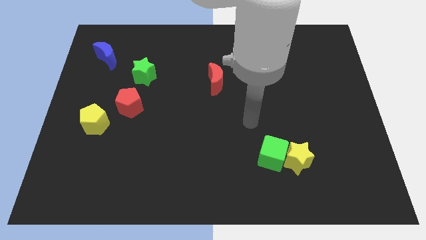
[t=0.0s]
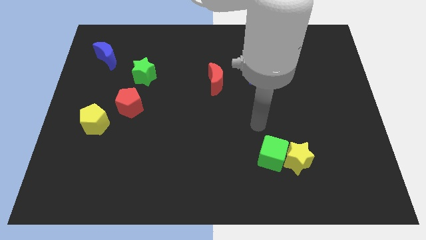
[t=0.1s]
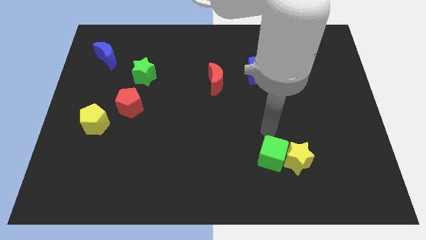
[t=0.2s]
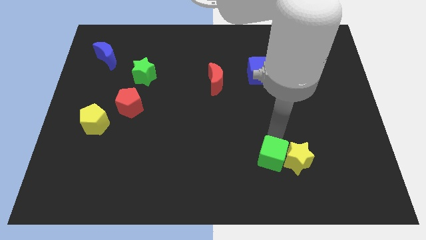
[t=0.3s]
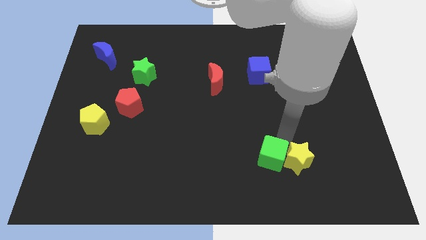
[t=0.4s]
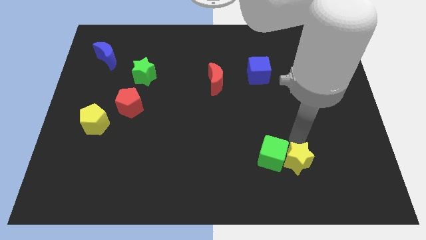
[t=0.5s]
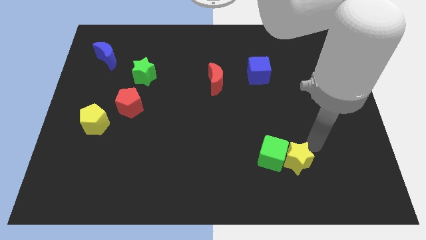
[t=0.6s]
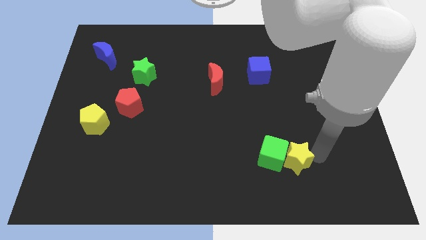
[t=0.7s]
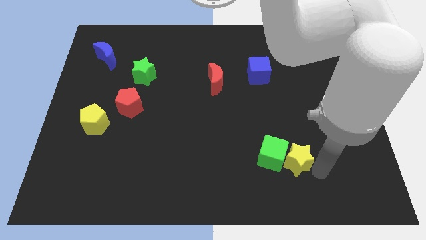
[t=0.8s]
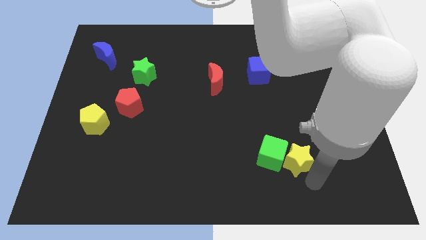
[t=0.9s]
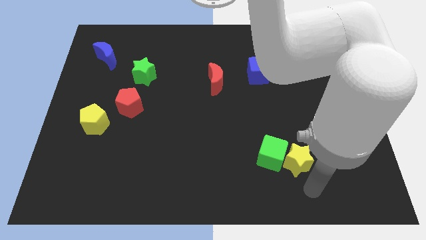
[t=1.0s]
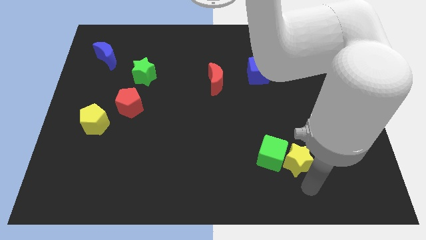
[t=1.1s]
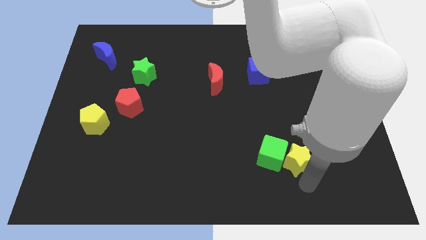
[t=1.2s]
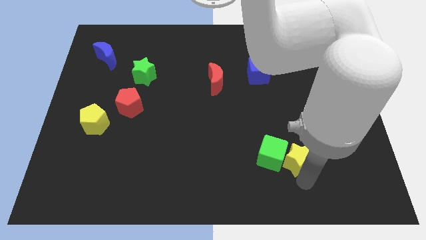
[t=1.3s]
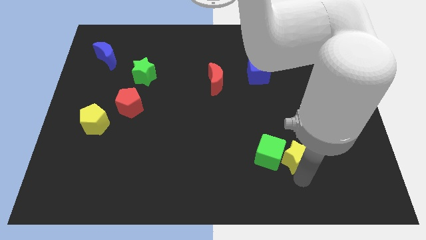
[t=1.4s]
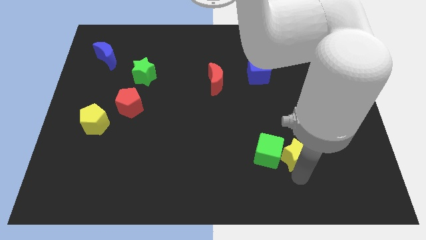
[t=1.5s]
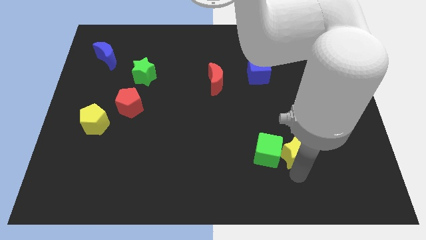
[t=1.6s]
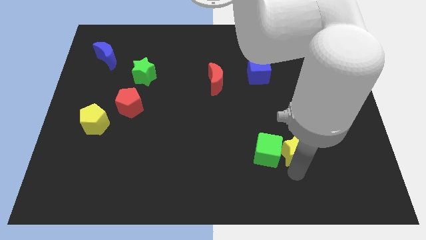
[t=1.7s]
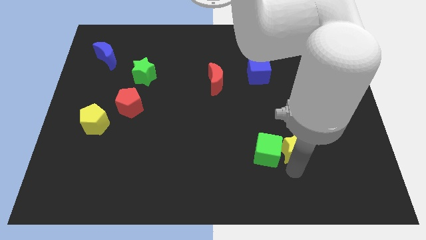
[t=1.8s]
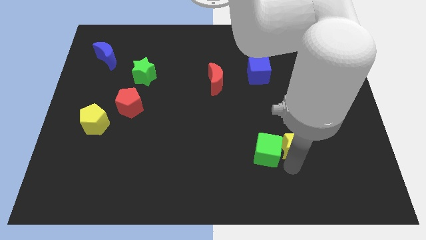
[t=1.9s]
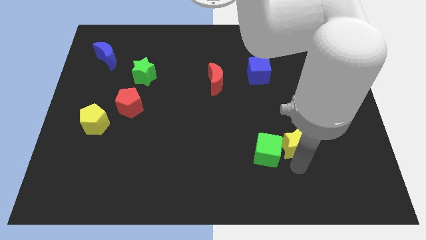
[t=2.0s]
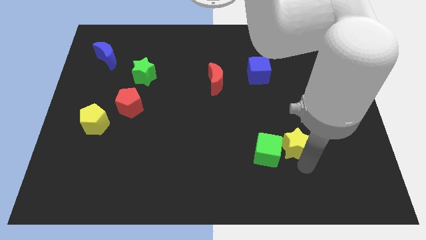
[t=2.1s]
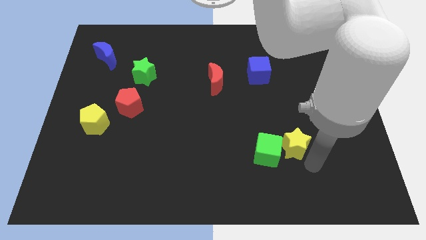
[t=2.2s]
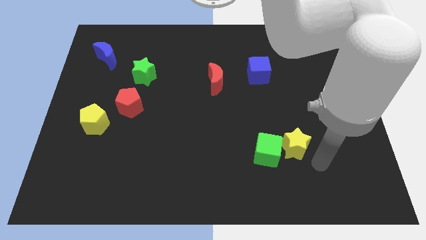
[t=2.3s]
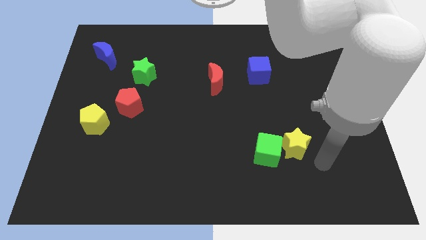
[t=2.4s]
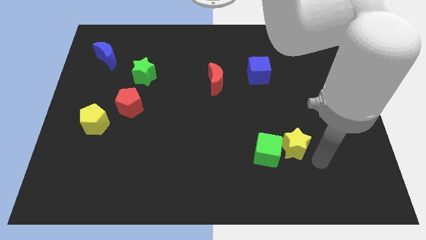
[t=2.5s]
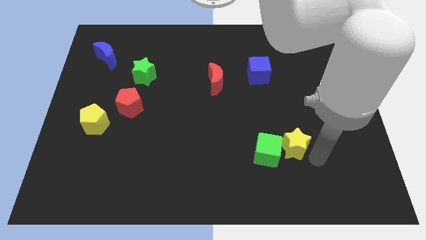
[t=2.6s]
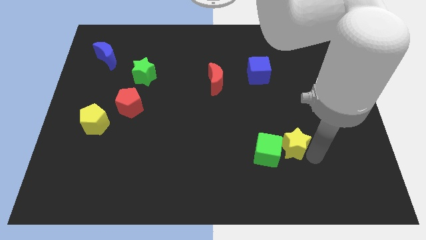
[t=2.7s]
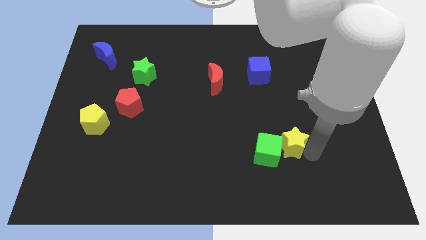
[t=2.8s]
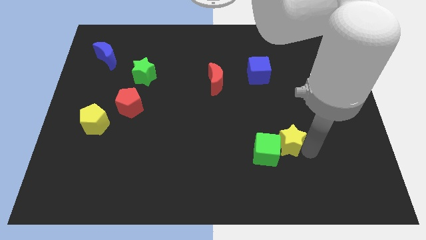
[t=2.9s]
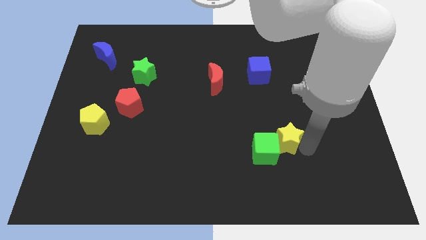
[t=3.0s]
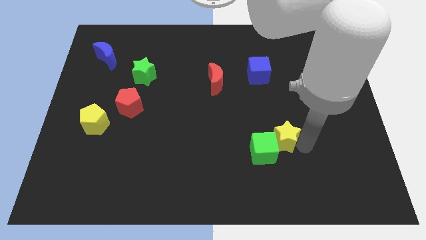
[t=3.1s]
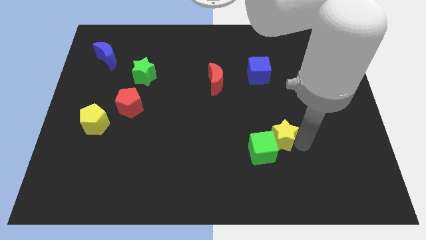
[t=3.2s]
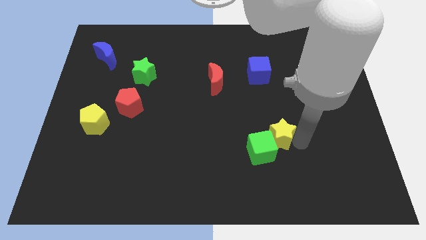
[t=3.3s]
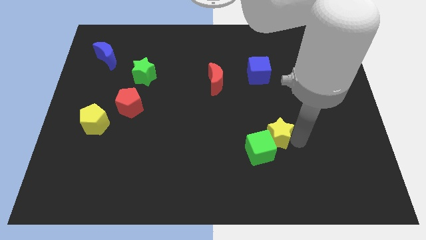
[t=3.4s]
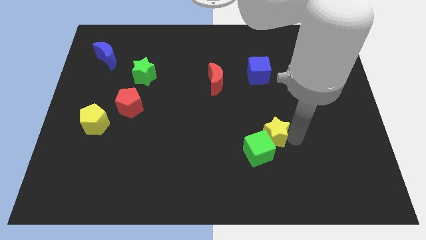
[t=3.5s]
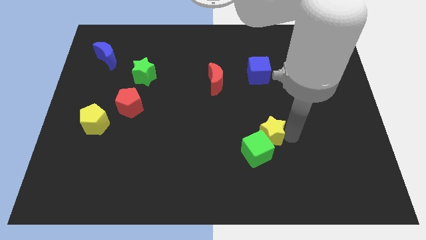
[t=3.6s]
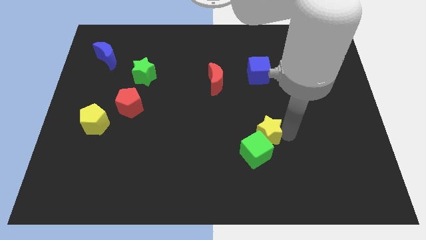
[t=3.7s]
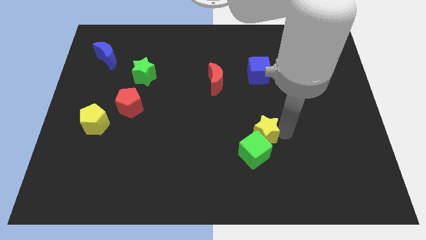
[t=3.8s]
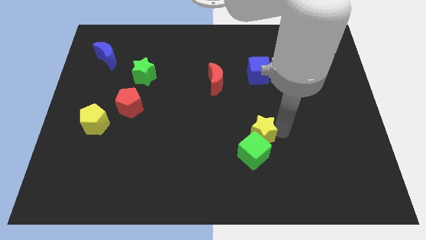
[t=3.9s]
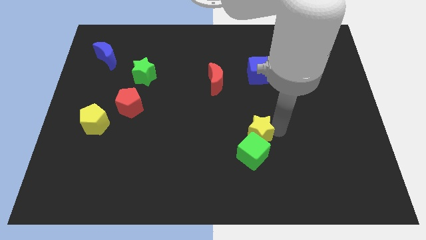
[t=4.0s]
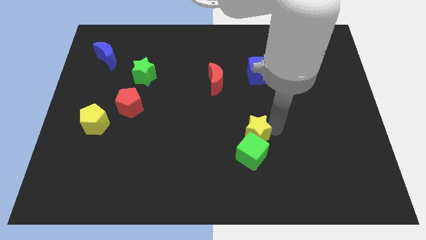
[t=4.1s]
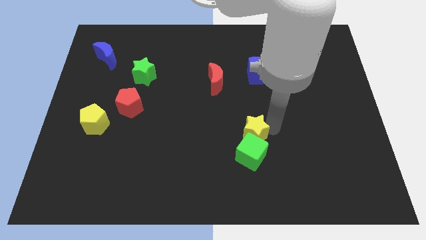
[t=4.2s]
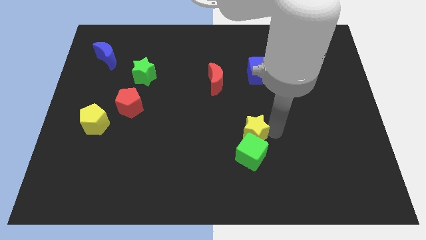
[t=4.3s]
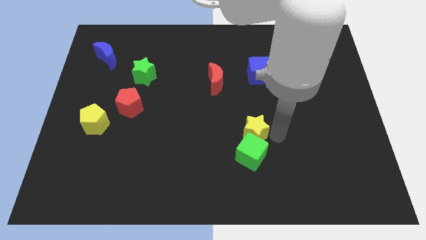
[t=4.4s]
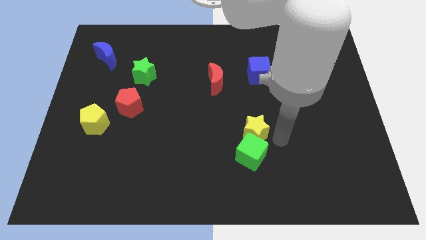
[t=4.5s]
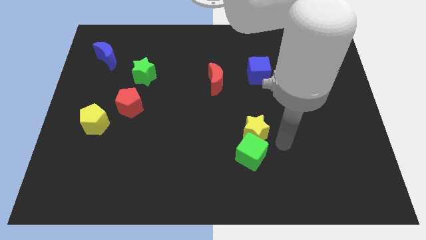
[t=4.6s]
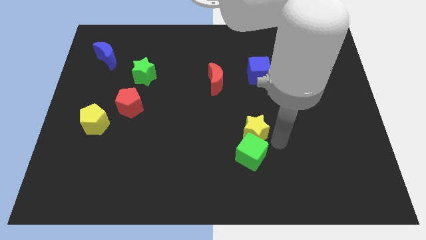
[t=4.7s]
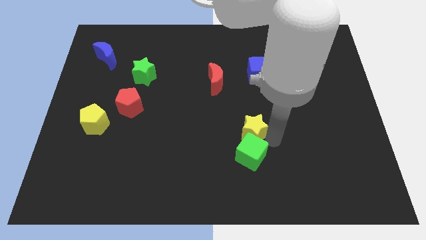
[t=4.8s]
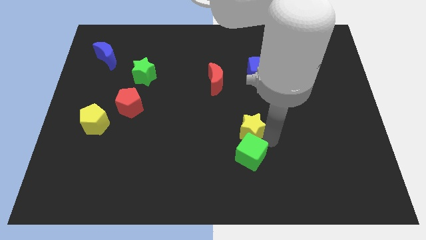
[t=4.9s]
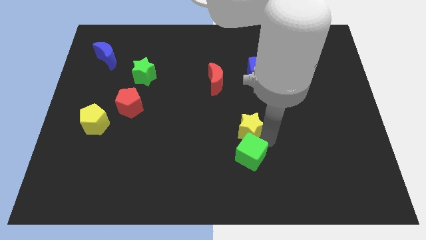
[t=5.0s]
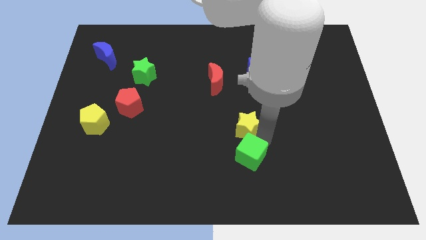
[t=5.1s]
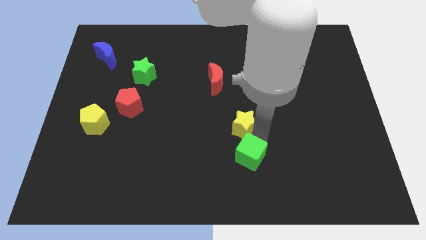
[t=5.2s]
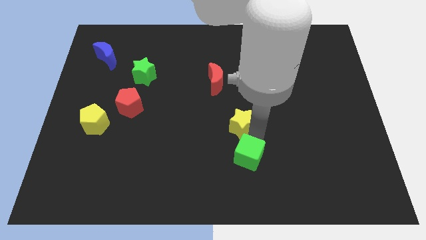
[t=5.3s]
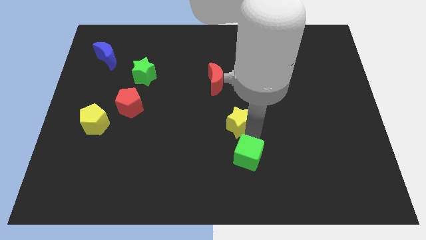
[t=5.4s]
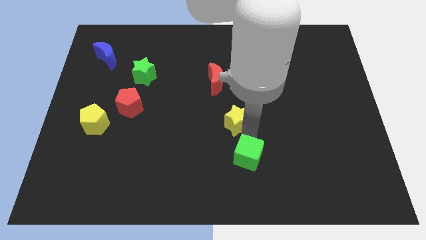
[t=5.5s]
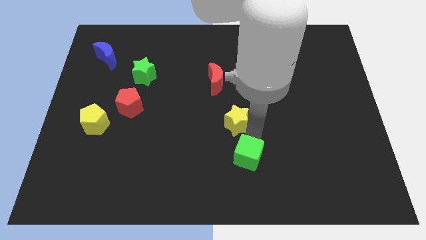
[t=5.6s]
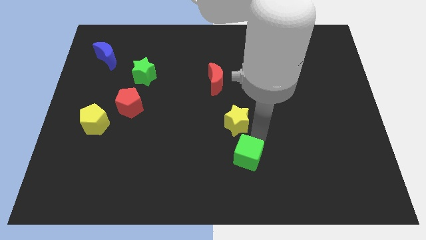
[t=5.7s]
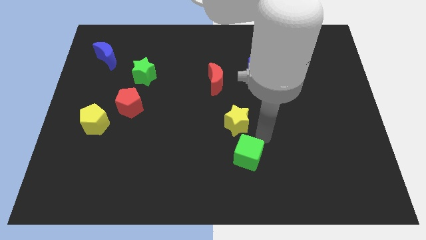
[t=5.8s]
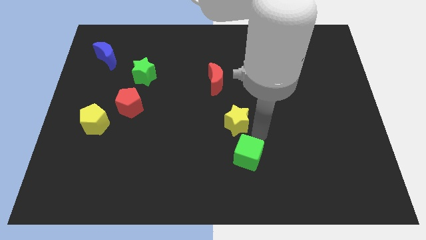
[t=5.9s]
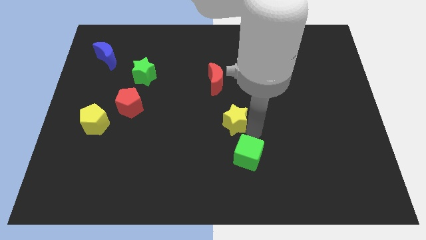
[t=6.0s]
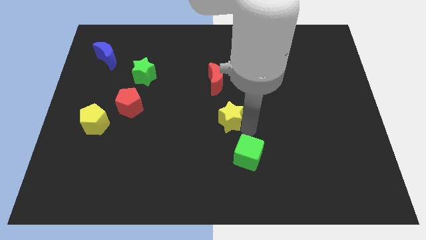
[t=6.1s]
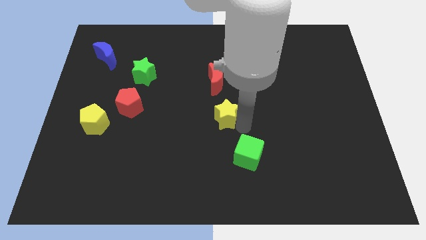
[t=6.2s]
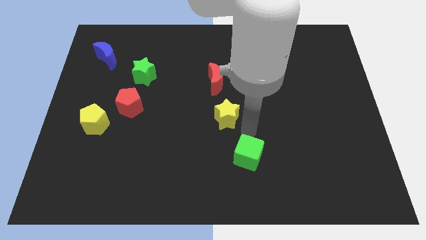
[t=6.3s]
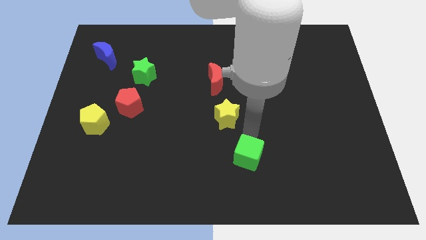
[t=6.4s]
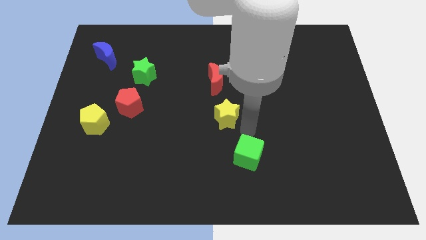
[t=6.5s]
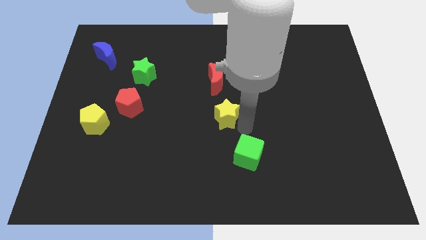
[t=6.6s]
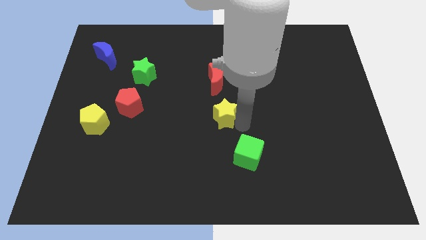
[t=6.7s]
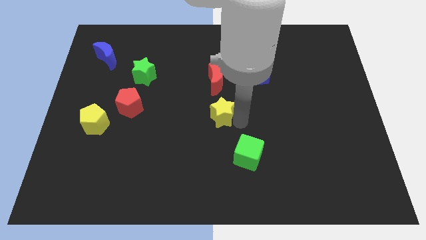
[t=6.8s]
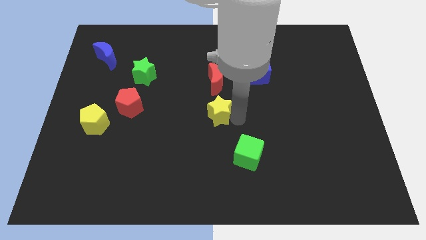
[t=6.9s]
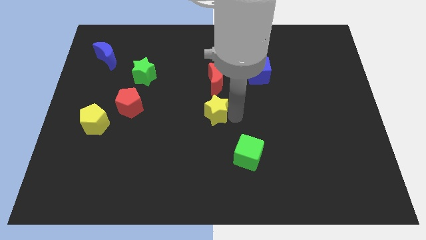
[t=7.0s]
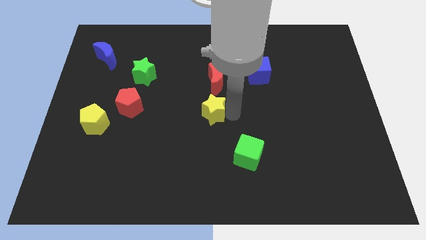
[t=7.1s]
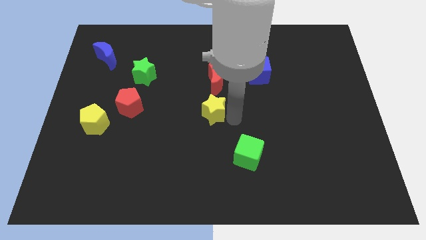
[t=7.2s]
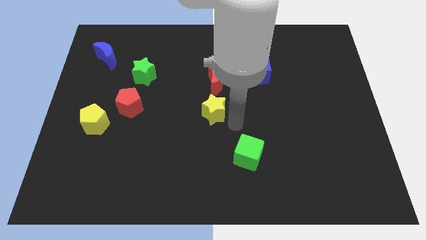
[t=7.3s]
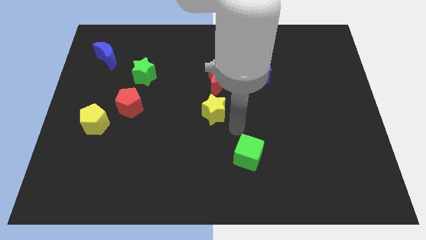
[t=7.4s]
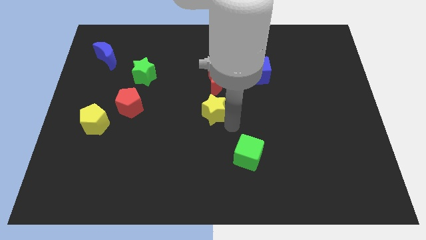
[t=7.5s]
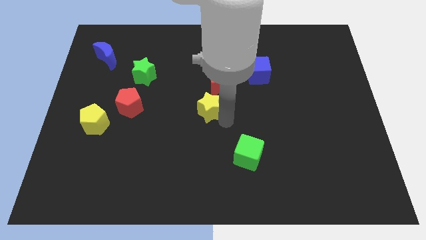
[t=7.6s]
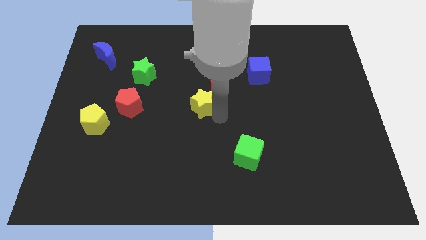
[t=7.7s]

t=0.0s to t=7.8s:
put the yellow star to the bottom left side of the red moon
